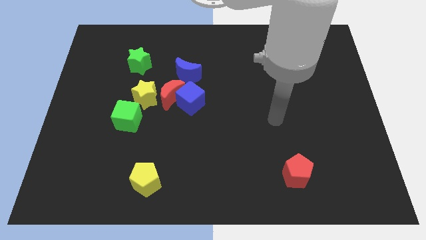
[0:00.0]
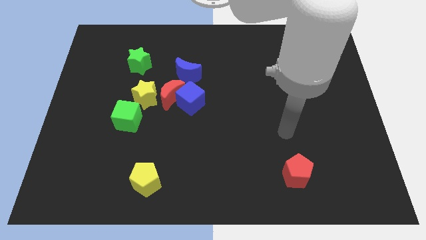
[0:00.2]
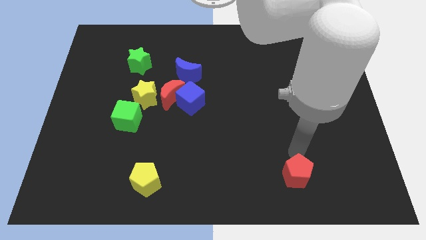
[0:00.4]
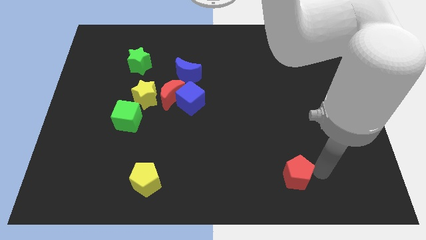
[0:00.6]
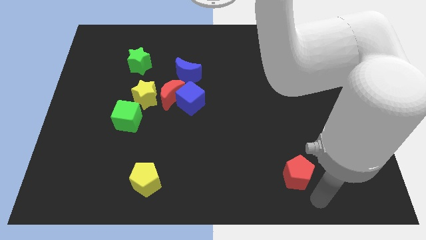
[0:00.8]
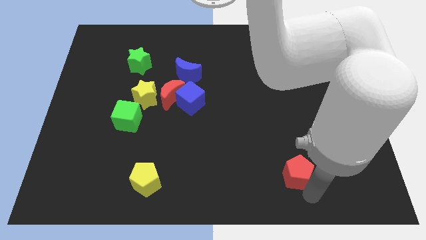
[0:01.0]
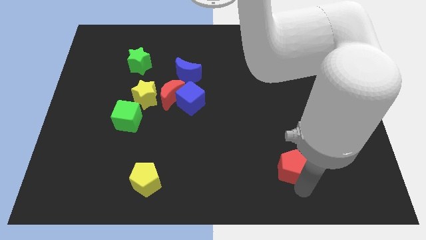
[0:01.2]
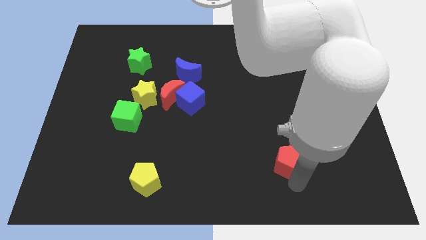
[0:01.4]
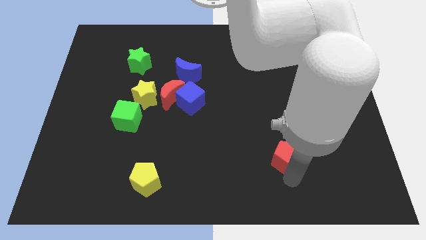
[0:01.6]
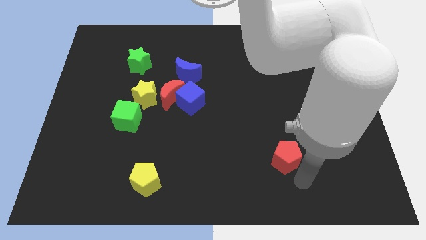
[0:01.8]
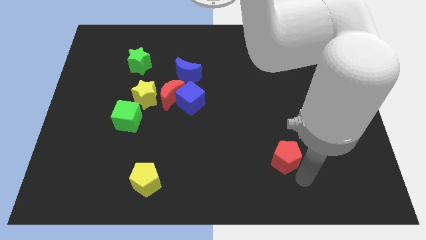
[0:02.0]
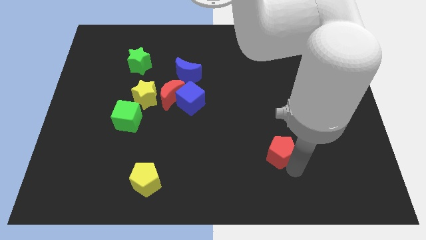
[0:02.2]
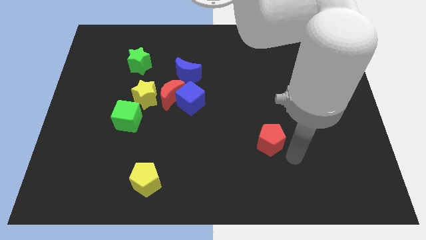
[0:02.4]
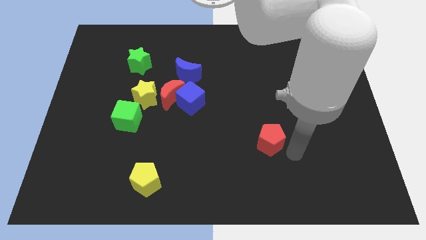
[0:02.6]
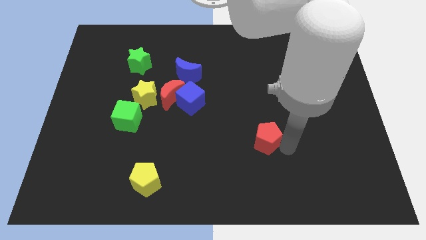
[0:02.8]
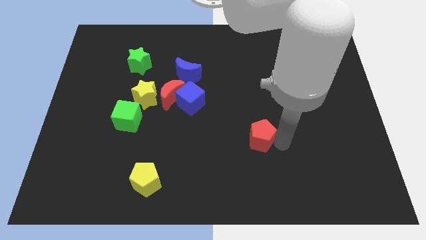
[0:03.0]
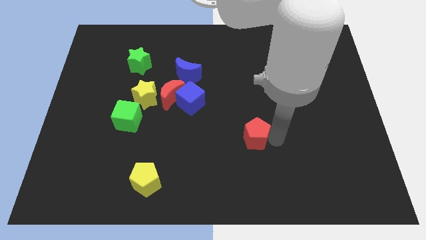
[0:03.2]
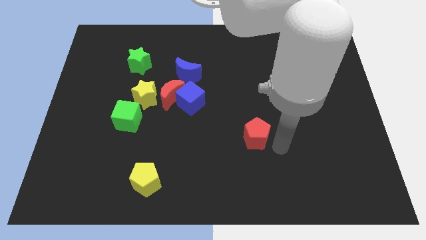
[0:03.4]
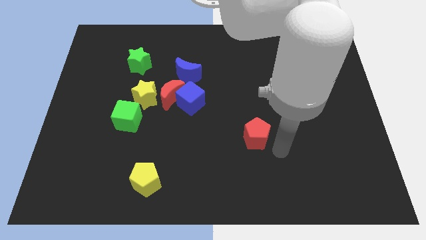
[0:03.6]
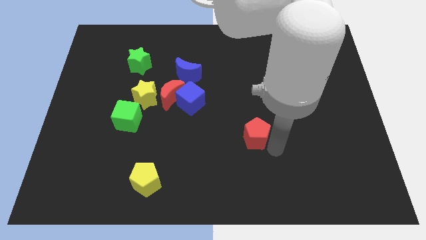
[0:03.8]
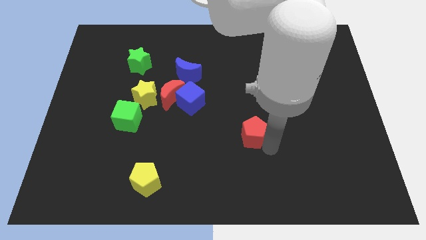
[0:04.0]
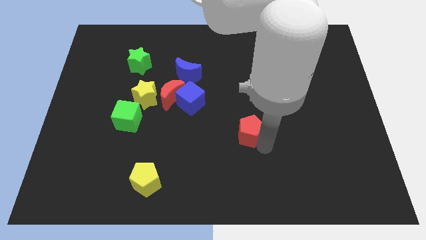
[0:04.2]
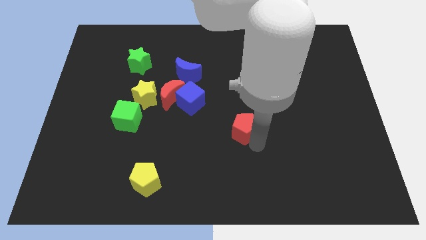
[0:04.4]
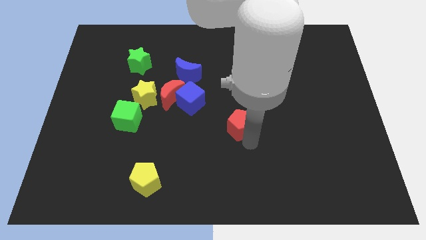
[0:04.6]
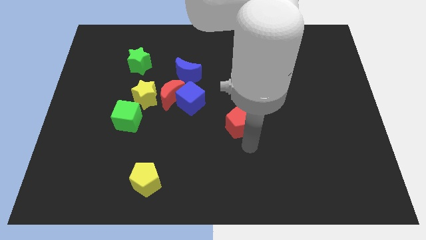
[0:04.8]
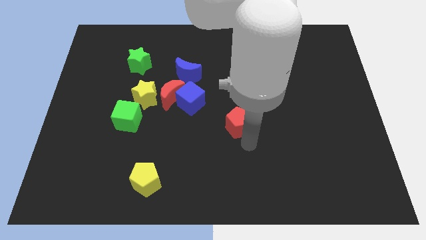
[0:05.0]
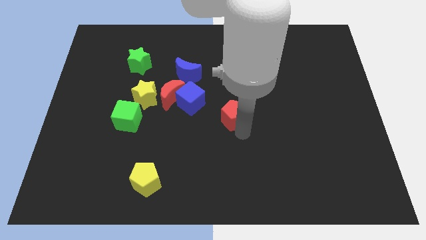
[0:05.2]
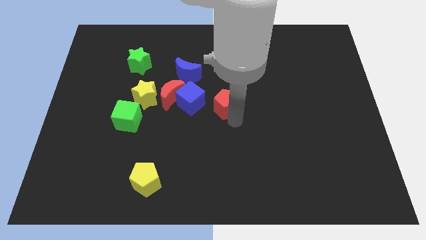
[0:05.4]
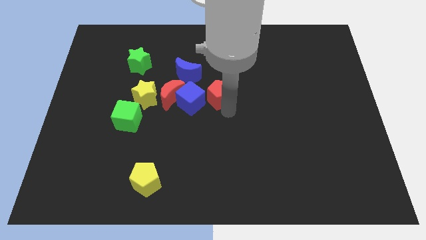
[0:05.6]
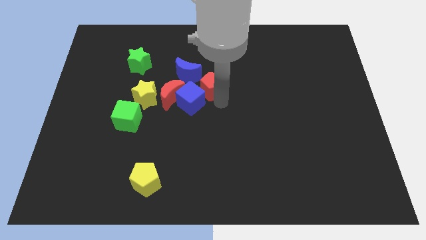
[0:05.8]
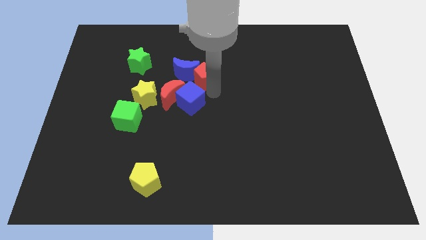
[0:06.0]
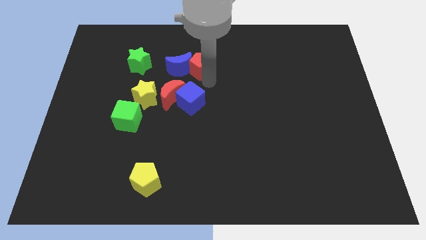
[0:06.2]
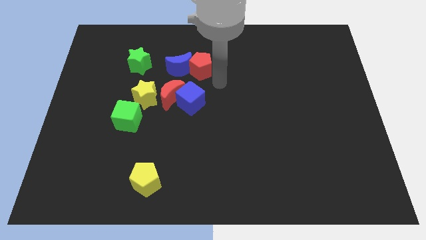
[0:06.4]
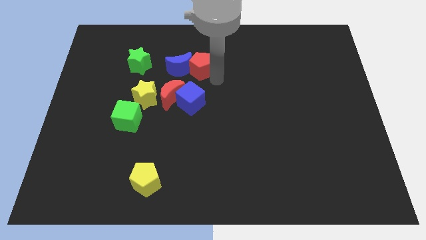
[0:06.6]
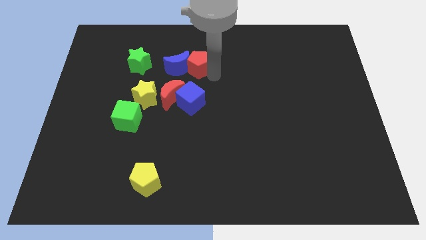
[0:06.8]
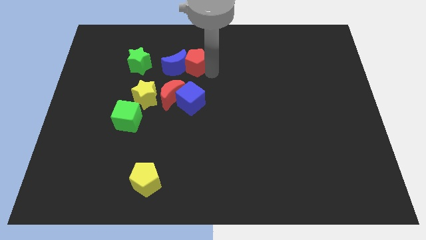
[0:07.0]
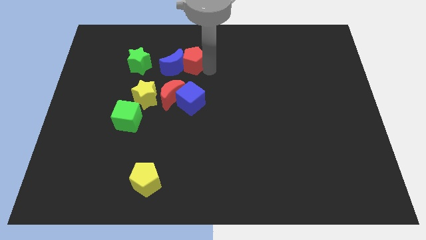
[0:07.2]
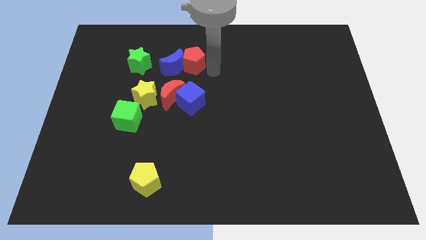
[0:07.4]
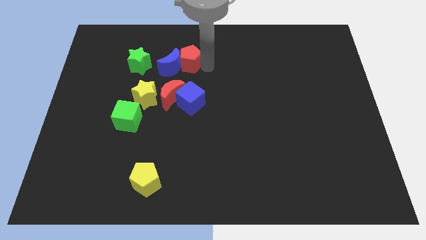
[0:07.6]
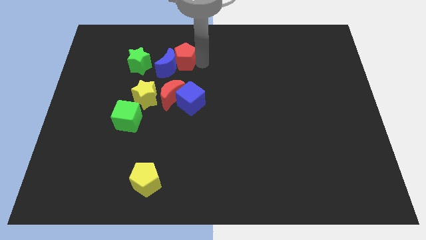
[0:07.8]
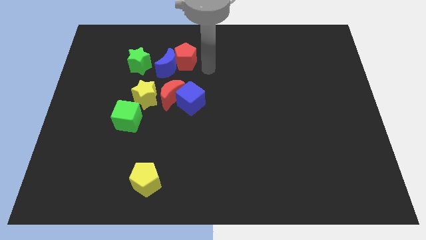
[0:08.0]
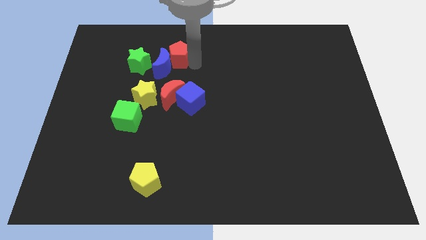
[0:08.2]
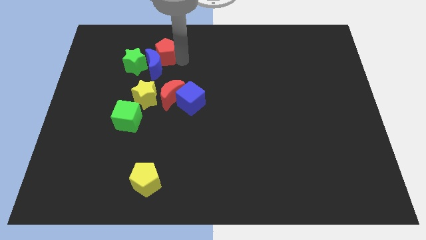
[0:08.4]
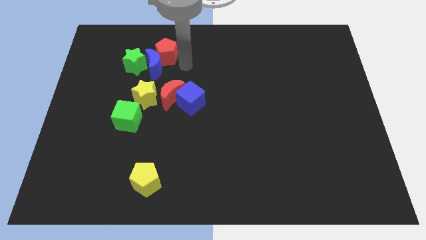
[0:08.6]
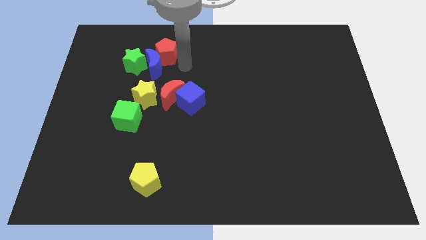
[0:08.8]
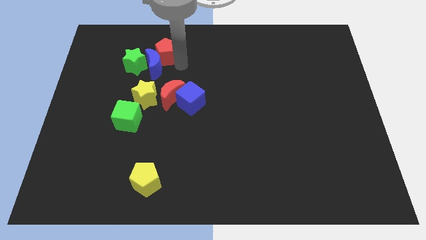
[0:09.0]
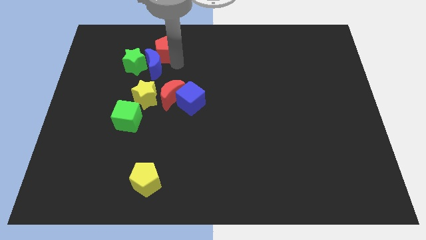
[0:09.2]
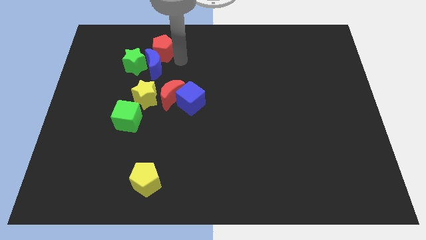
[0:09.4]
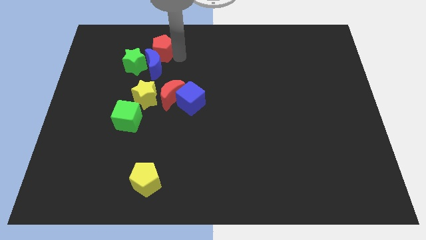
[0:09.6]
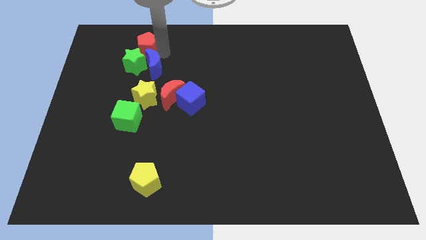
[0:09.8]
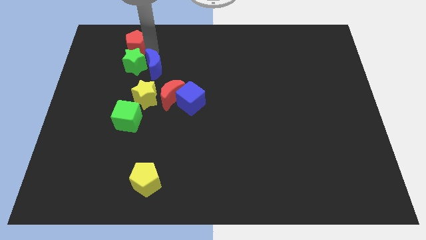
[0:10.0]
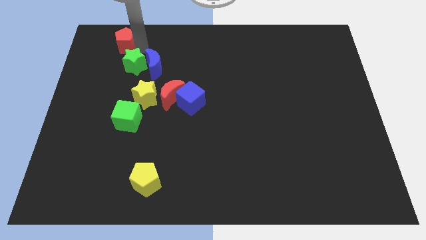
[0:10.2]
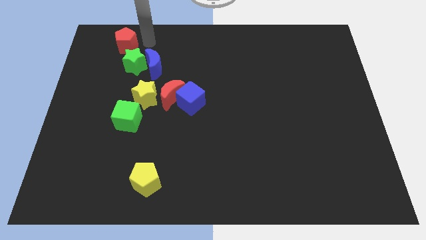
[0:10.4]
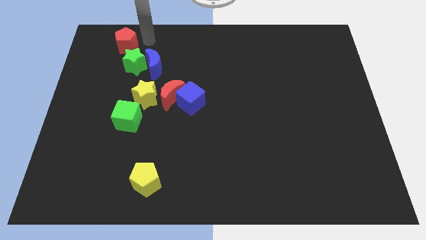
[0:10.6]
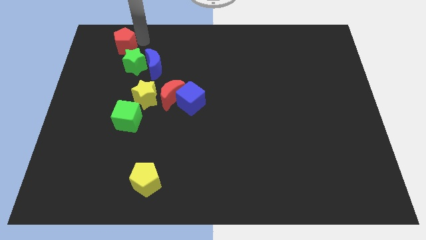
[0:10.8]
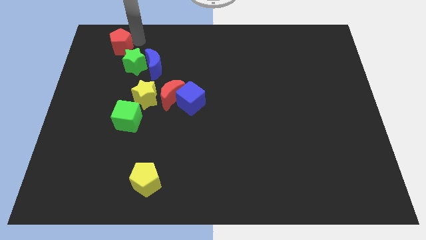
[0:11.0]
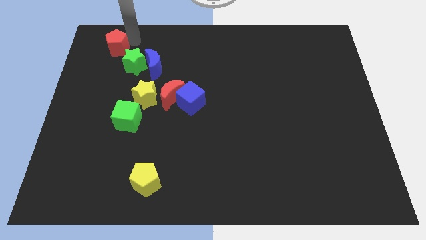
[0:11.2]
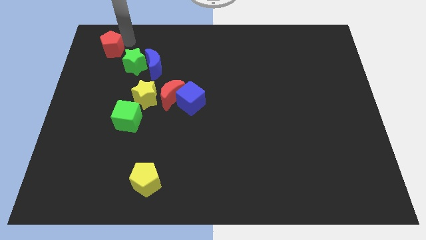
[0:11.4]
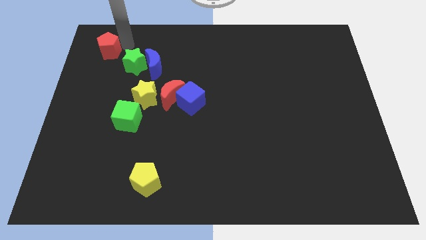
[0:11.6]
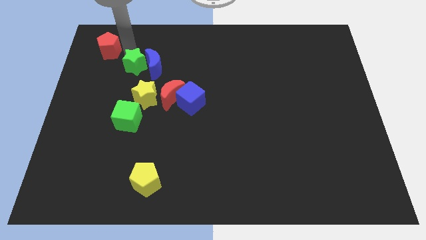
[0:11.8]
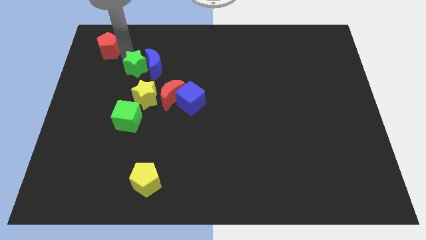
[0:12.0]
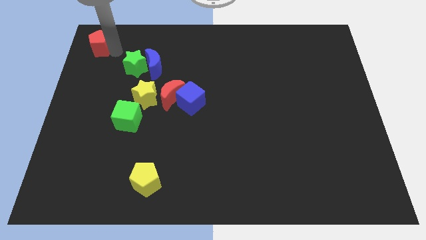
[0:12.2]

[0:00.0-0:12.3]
put the red pentagon to the top left corner
